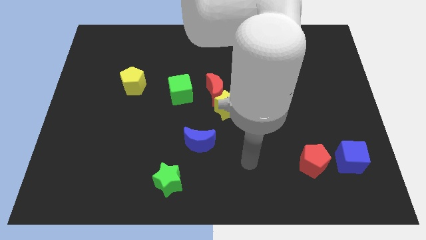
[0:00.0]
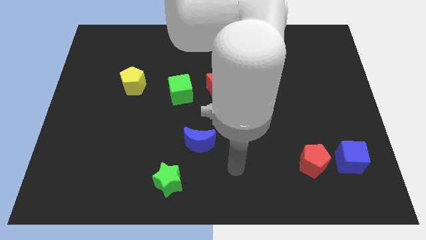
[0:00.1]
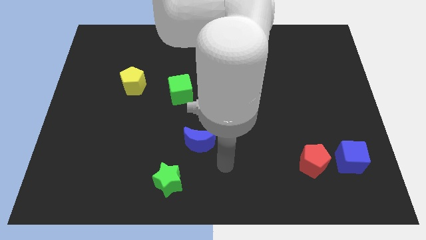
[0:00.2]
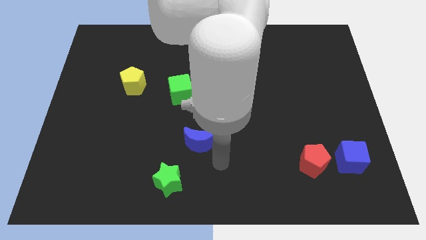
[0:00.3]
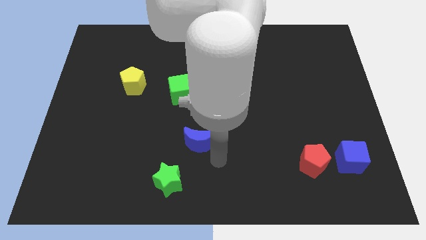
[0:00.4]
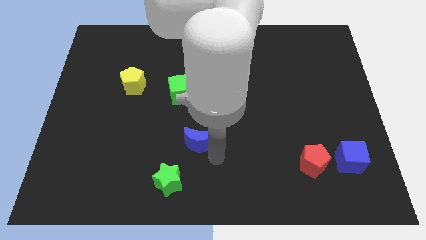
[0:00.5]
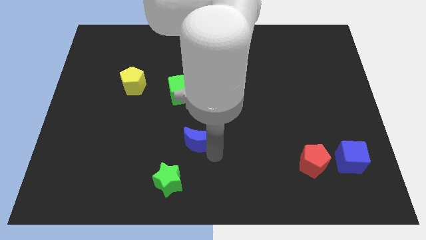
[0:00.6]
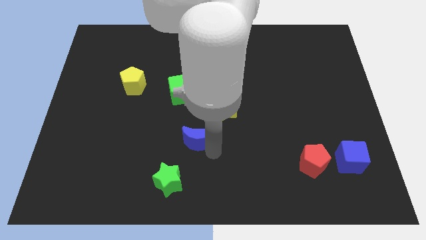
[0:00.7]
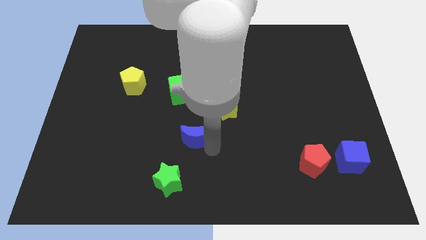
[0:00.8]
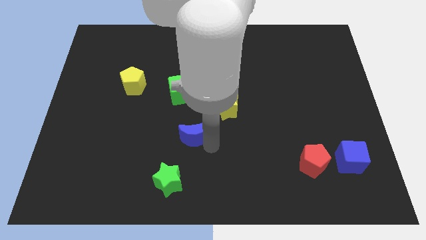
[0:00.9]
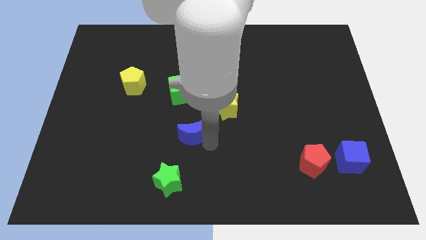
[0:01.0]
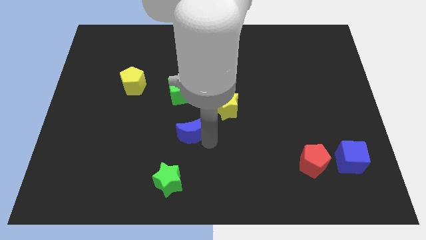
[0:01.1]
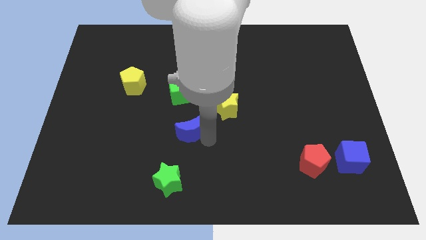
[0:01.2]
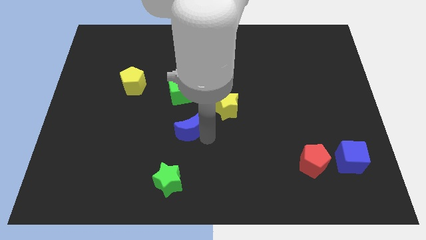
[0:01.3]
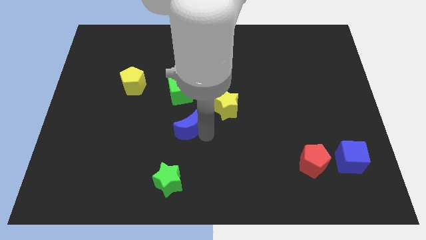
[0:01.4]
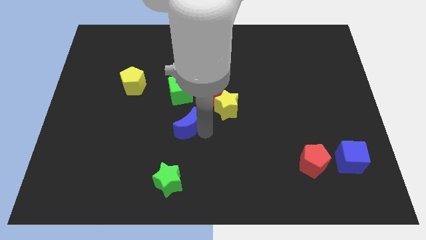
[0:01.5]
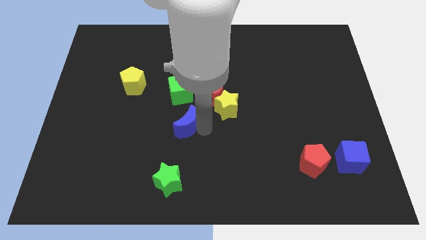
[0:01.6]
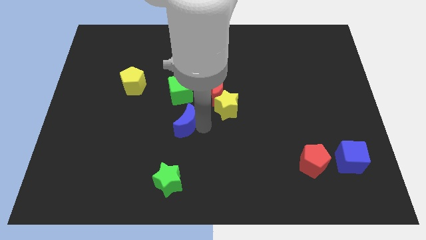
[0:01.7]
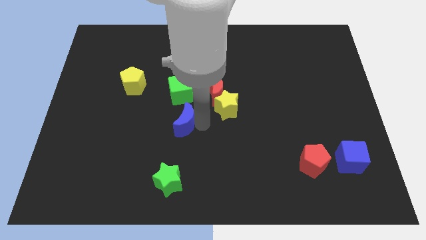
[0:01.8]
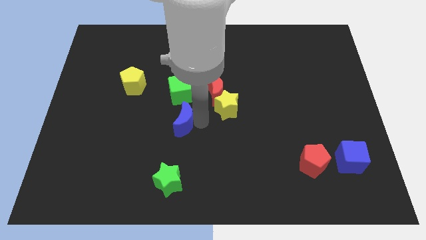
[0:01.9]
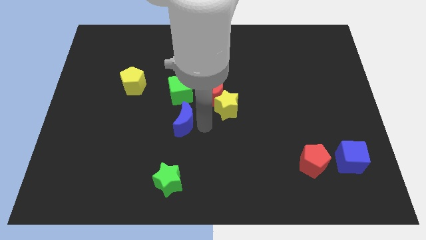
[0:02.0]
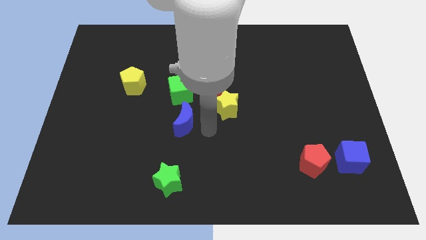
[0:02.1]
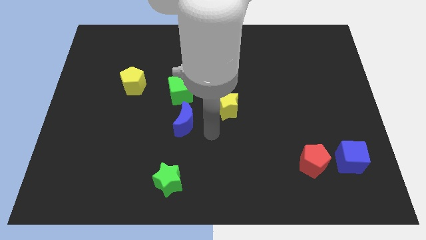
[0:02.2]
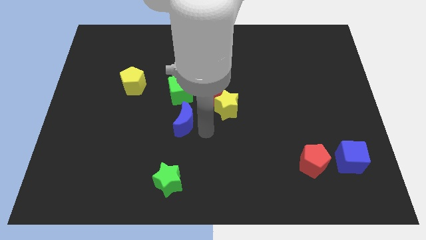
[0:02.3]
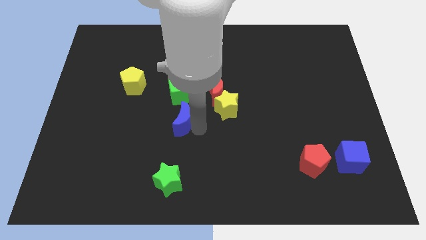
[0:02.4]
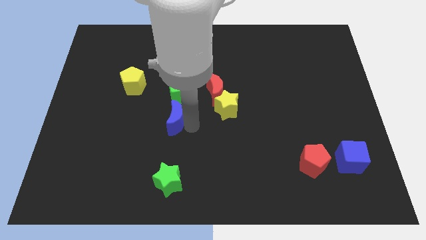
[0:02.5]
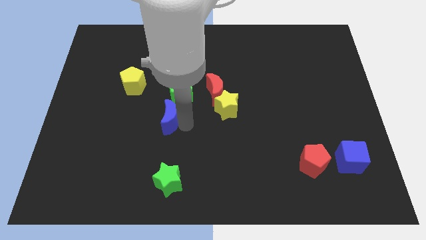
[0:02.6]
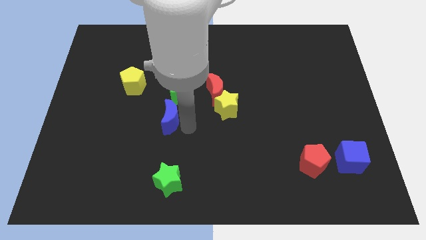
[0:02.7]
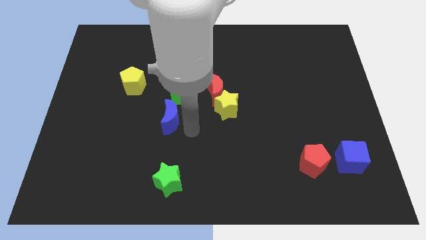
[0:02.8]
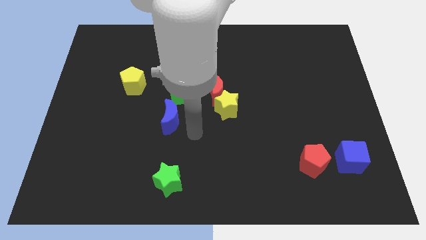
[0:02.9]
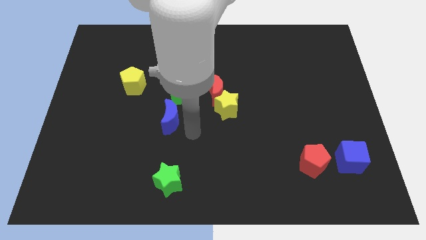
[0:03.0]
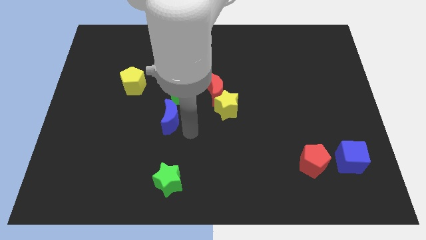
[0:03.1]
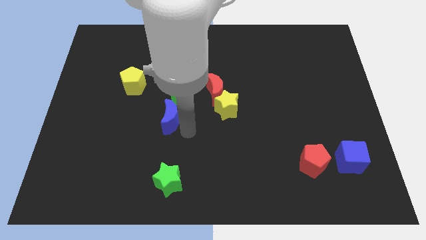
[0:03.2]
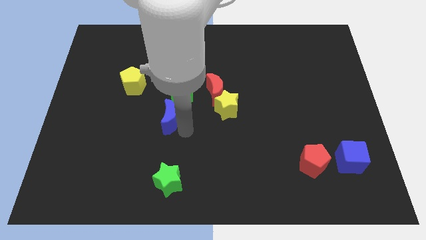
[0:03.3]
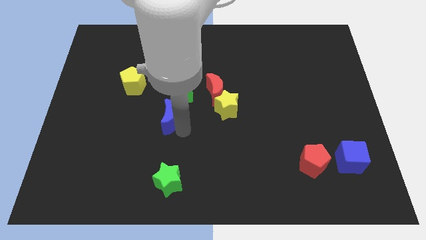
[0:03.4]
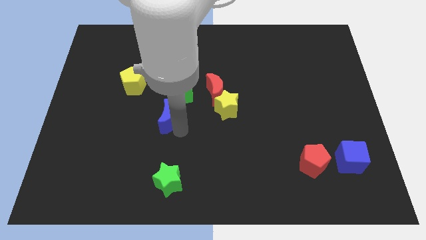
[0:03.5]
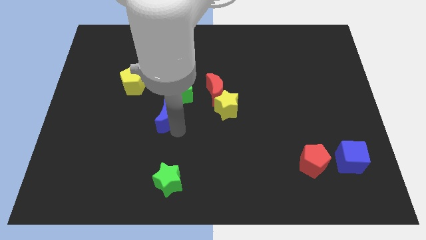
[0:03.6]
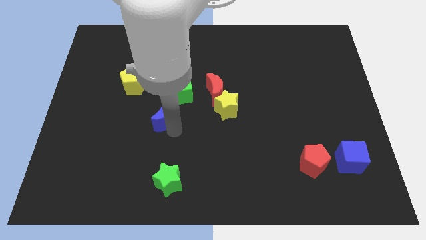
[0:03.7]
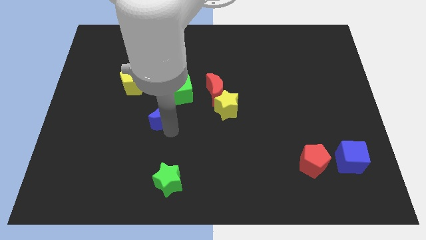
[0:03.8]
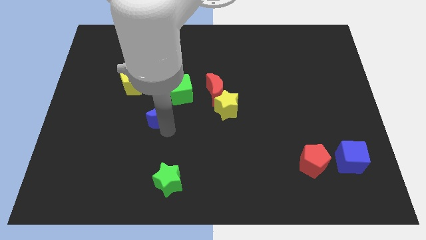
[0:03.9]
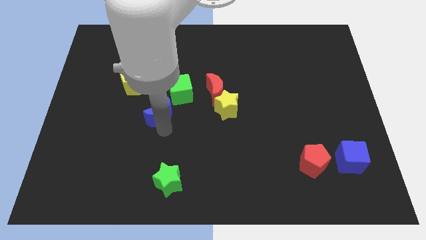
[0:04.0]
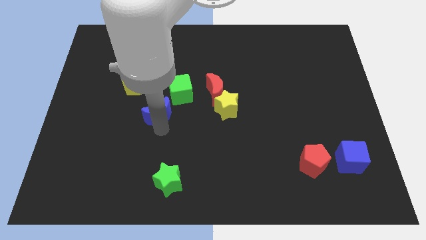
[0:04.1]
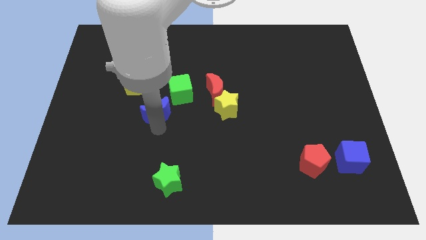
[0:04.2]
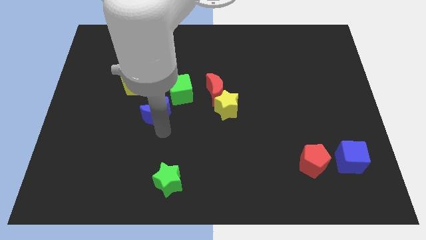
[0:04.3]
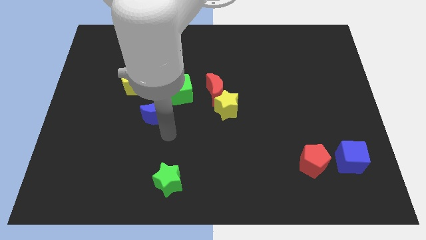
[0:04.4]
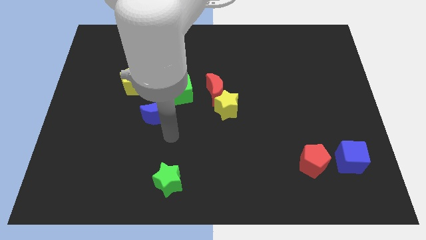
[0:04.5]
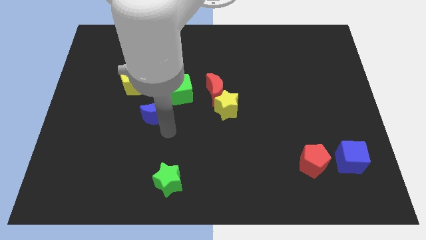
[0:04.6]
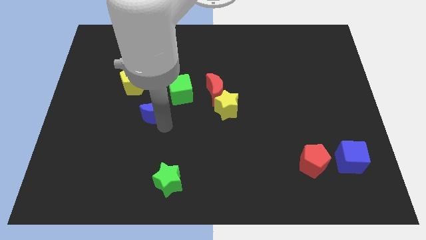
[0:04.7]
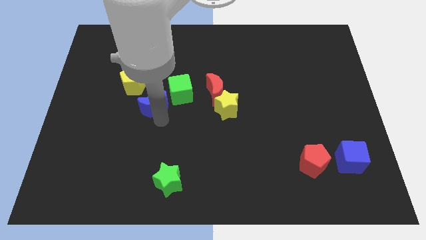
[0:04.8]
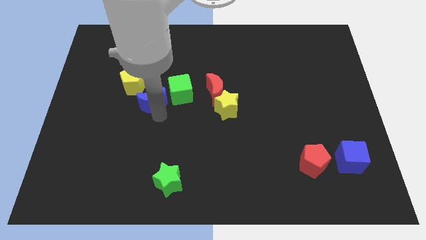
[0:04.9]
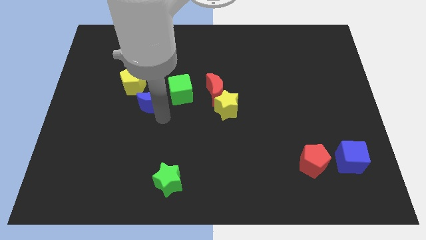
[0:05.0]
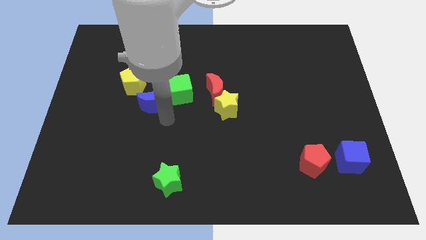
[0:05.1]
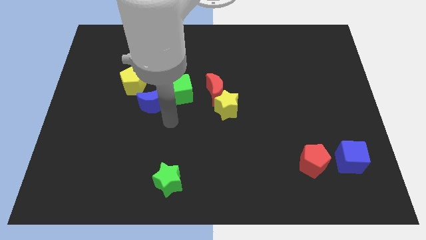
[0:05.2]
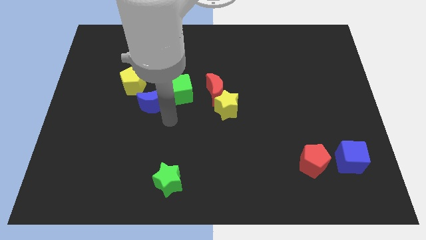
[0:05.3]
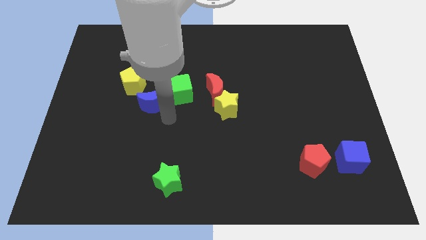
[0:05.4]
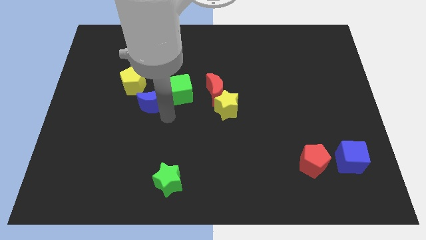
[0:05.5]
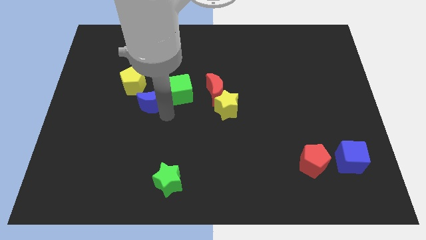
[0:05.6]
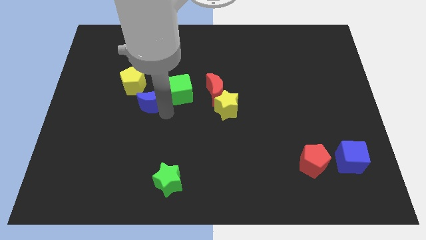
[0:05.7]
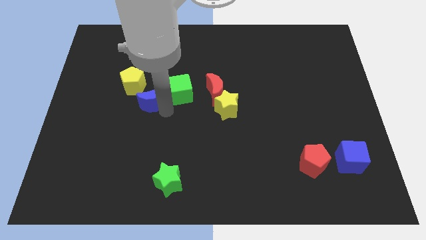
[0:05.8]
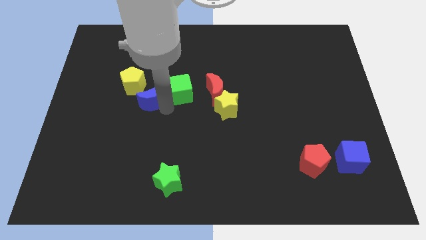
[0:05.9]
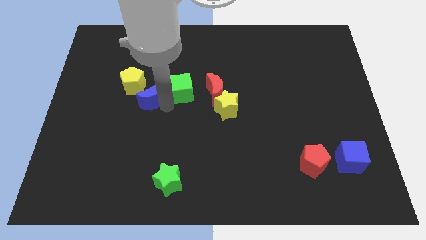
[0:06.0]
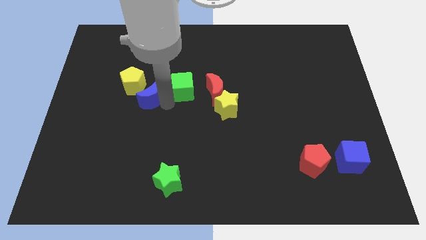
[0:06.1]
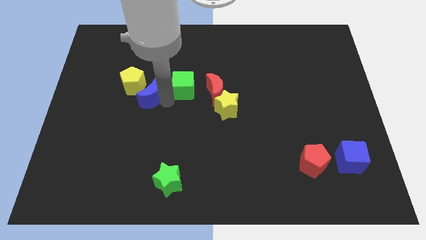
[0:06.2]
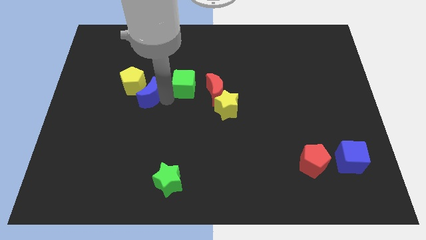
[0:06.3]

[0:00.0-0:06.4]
slide the blue moon to the yellow pentagon

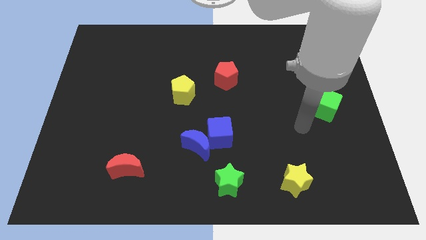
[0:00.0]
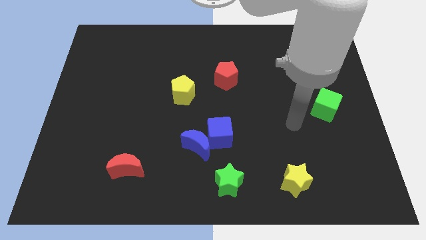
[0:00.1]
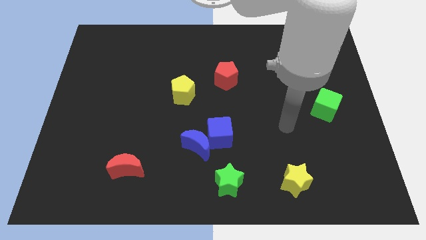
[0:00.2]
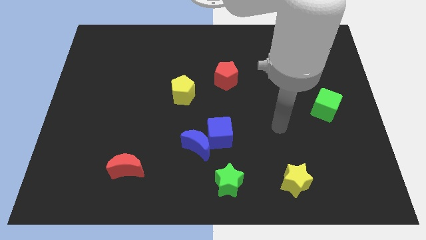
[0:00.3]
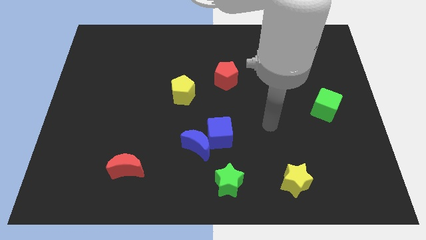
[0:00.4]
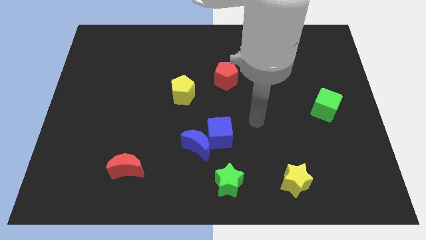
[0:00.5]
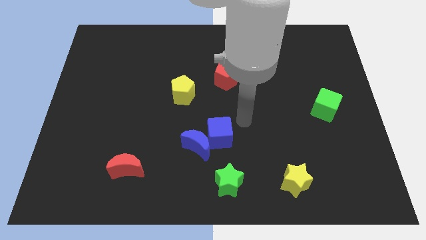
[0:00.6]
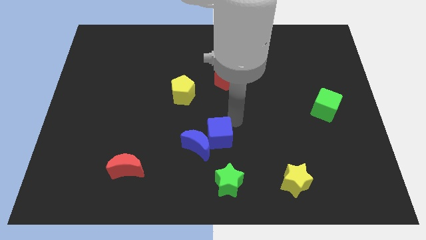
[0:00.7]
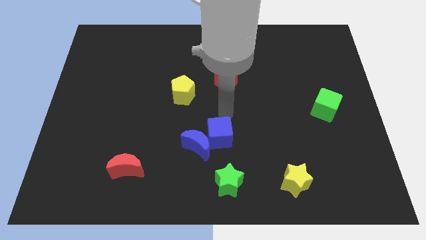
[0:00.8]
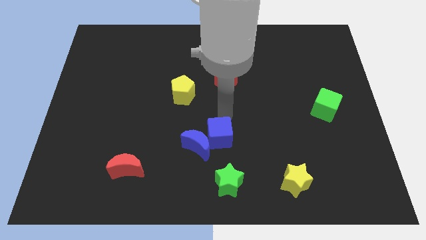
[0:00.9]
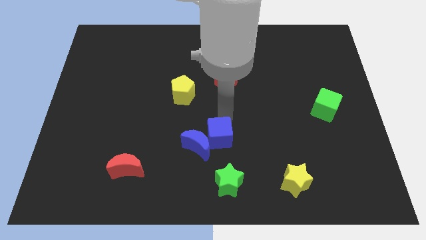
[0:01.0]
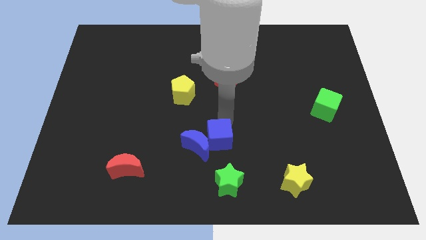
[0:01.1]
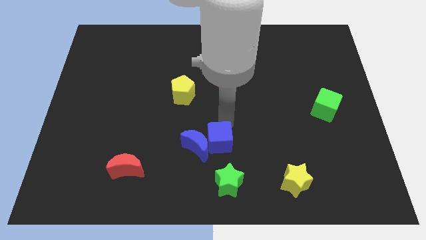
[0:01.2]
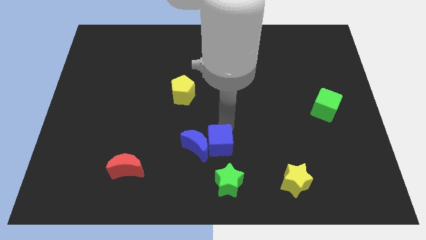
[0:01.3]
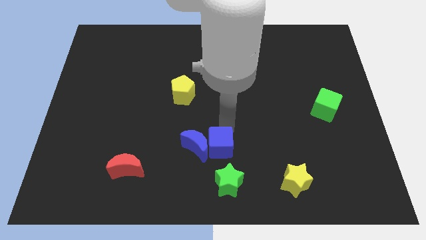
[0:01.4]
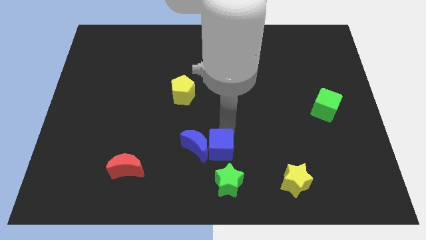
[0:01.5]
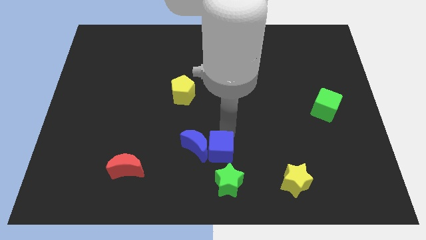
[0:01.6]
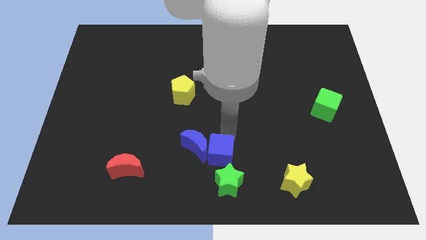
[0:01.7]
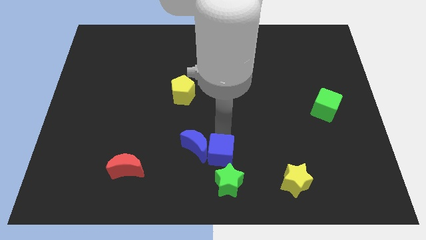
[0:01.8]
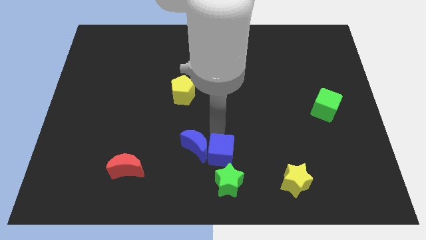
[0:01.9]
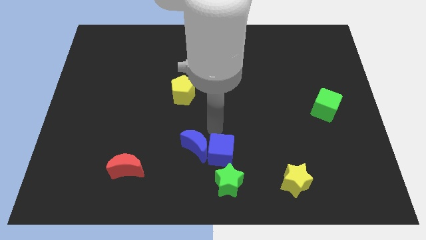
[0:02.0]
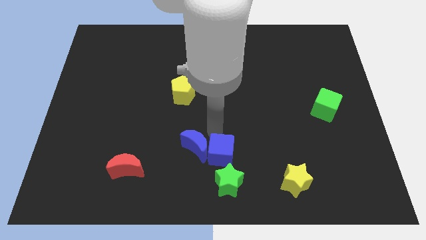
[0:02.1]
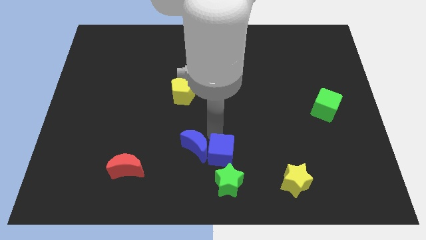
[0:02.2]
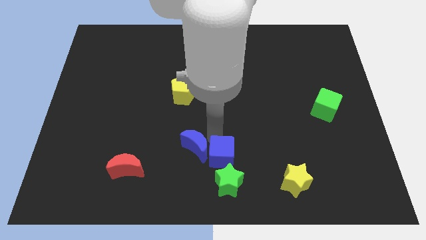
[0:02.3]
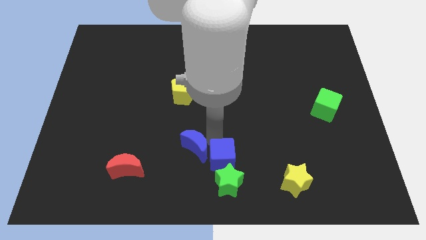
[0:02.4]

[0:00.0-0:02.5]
slide the blue cube close to the green star
